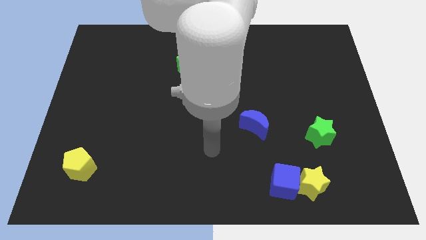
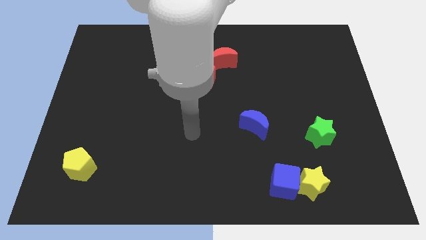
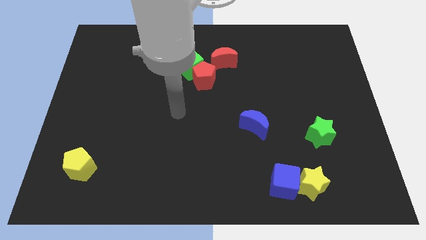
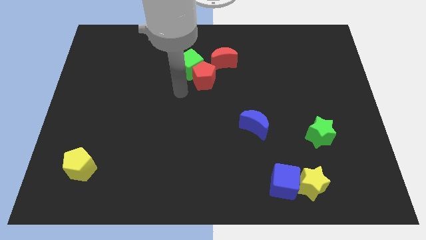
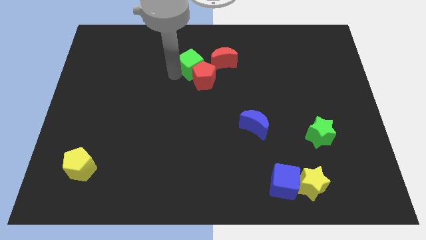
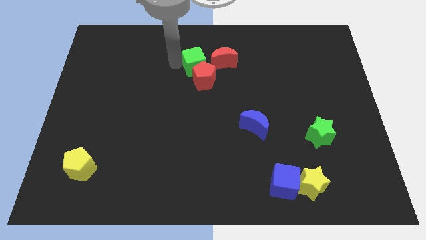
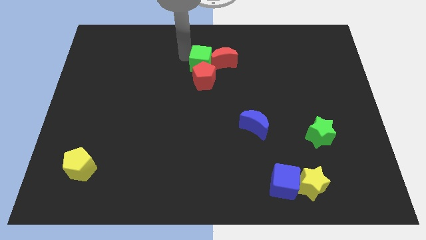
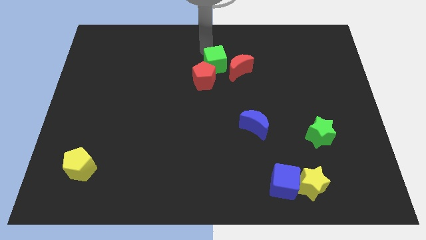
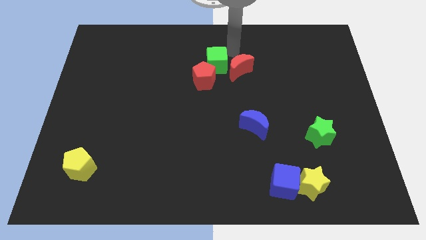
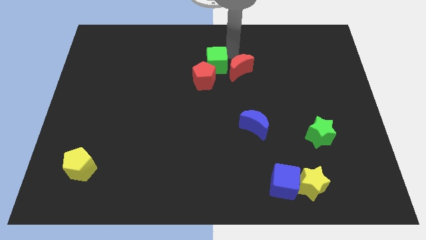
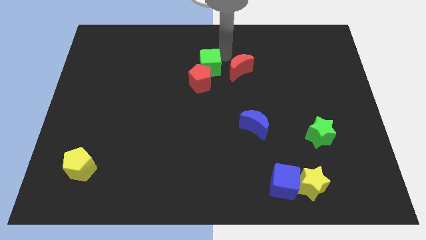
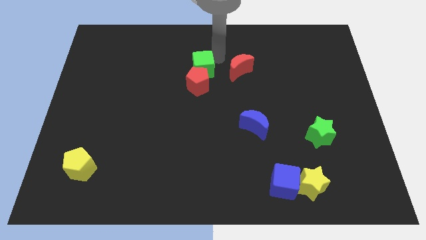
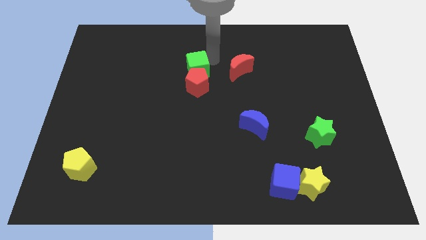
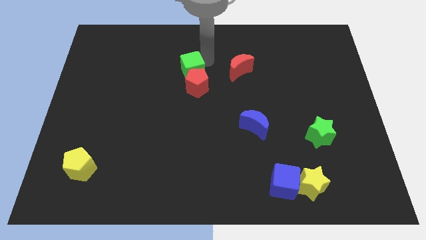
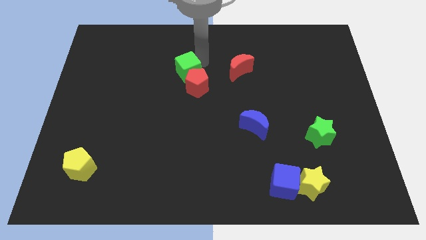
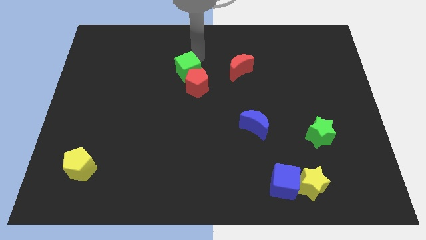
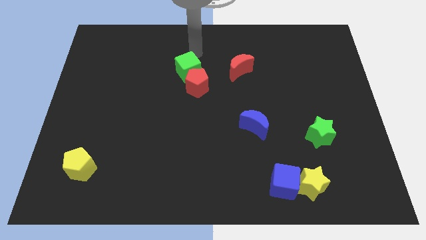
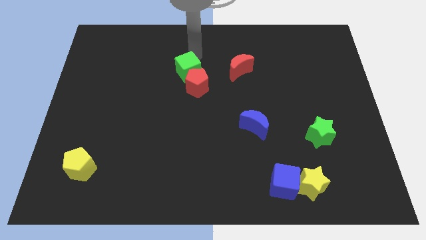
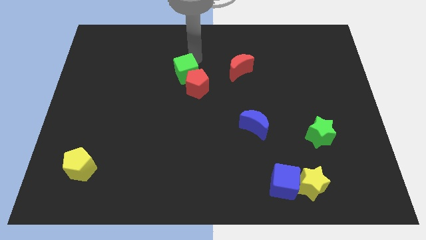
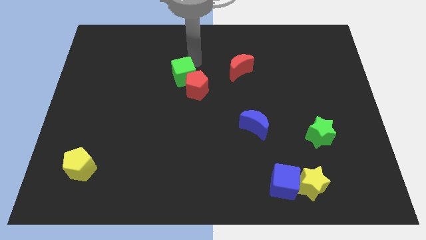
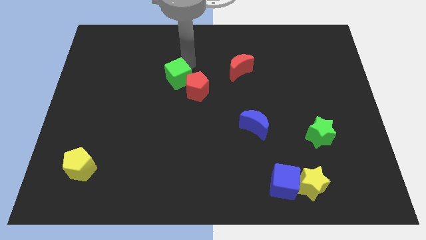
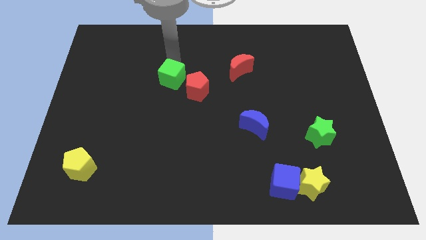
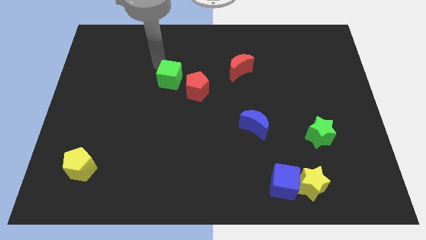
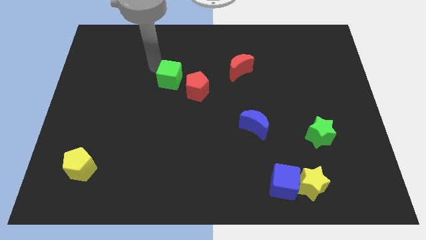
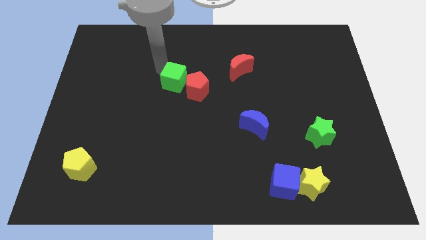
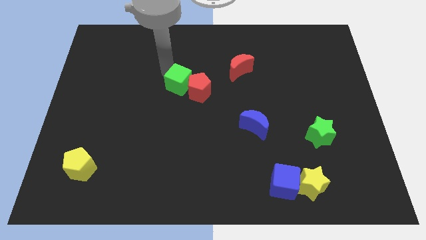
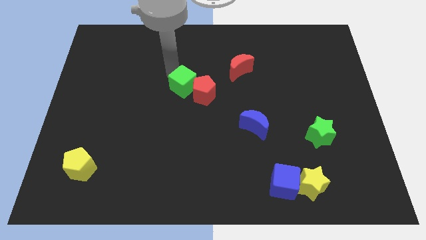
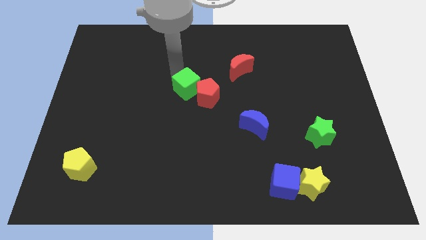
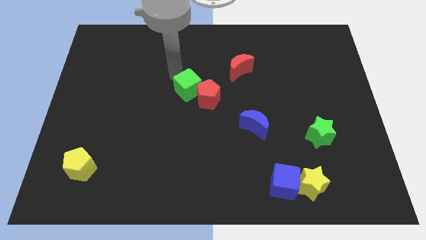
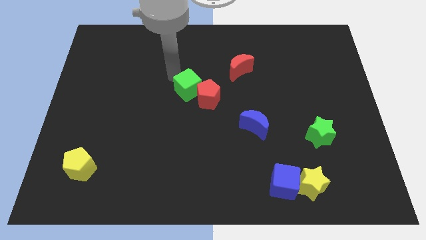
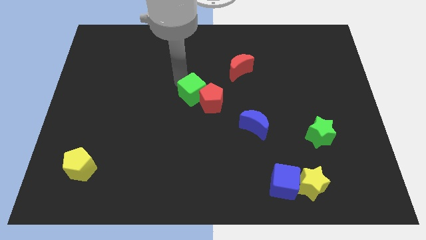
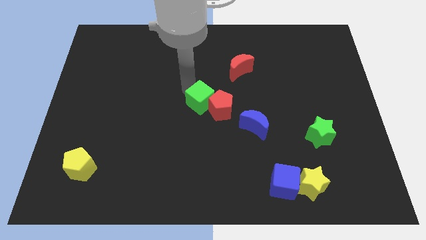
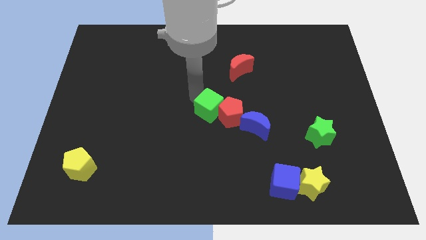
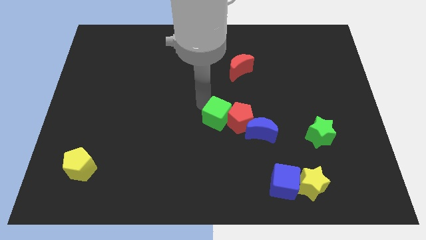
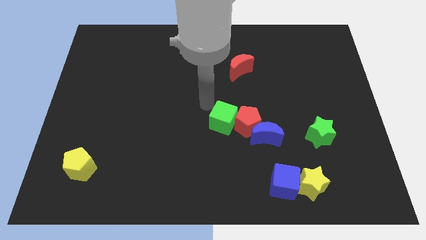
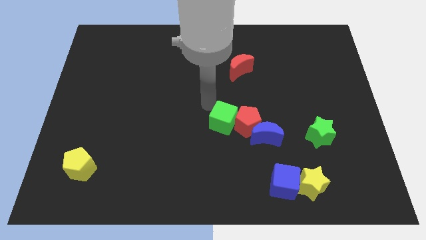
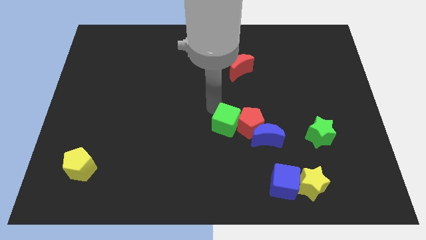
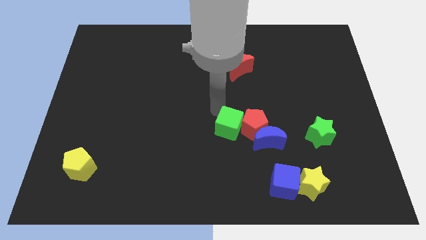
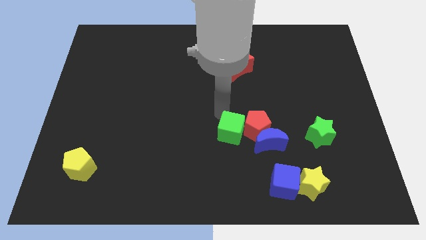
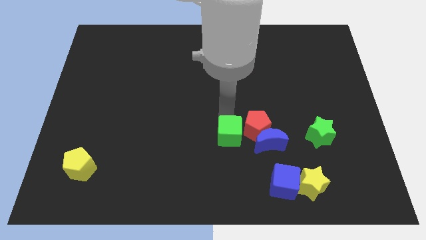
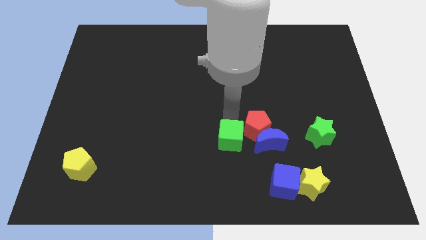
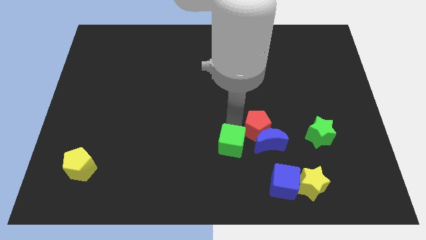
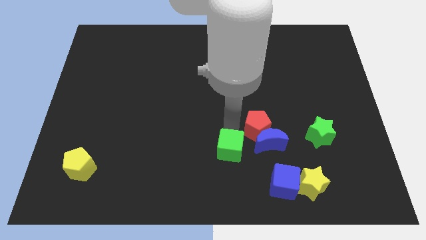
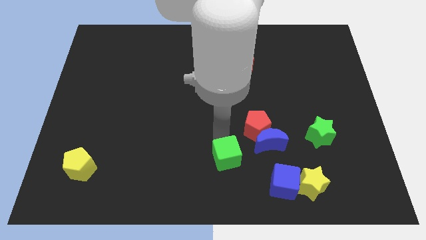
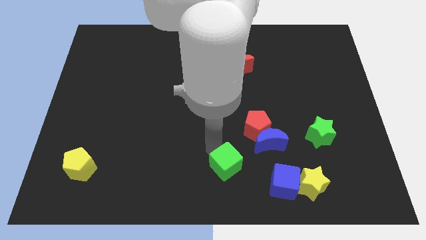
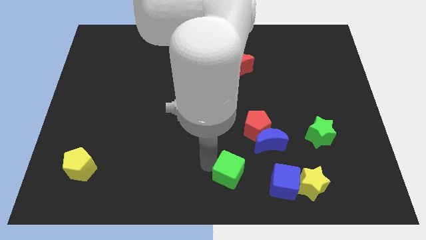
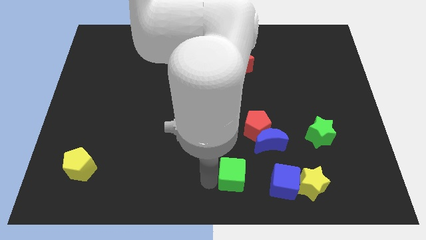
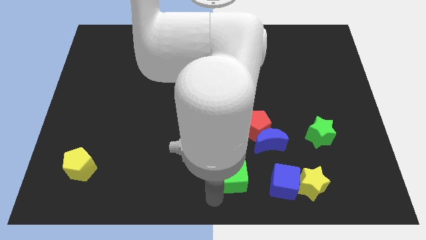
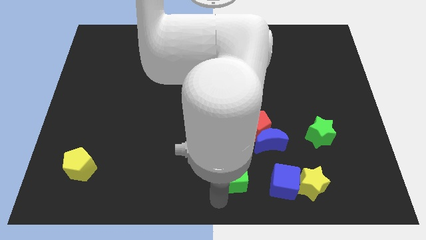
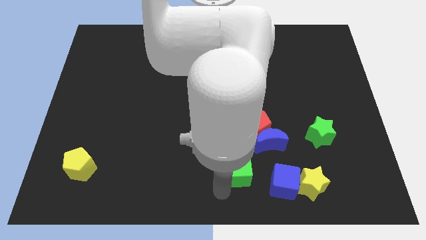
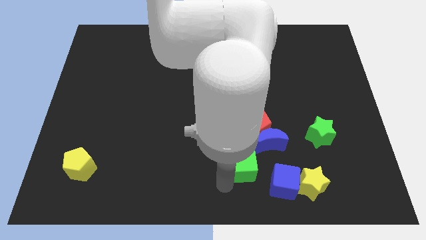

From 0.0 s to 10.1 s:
slide the green cube downwards and right

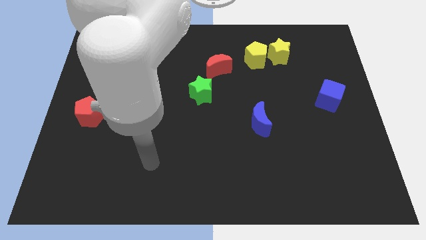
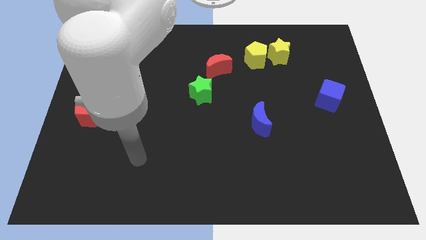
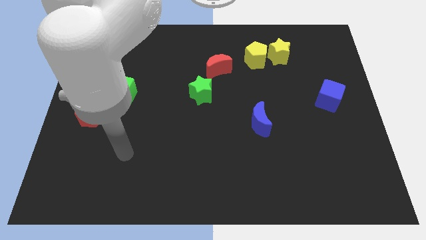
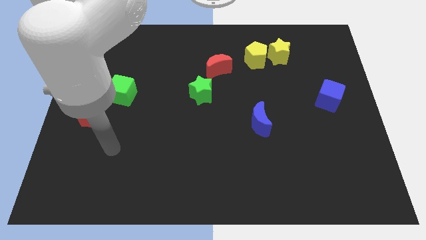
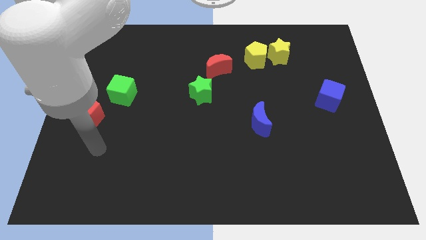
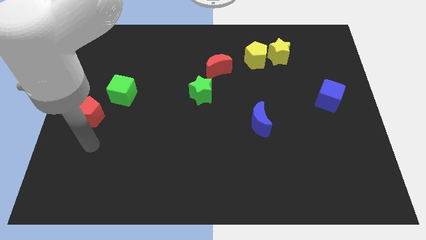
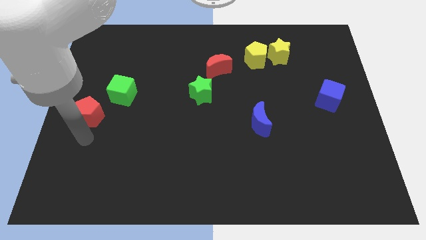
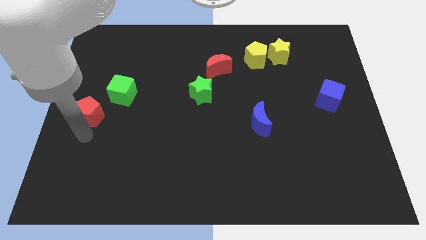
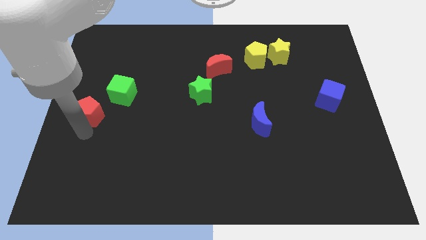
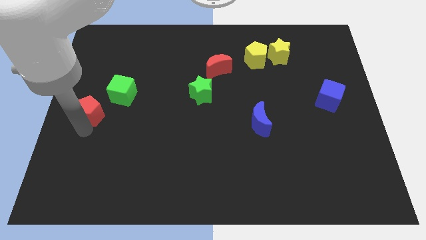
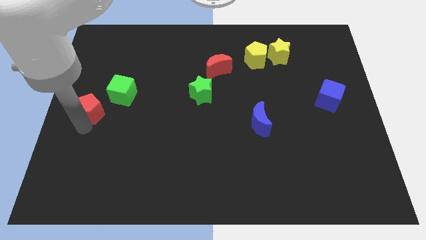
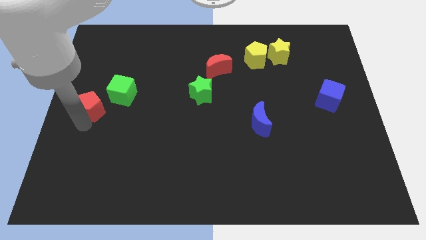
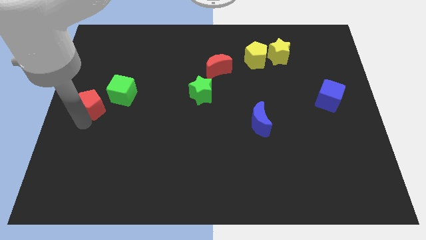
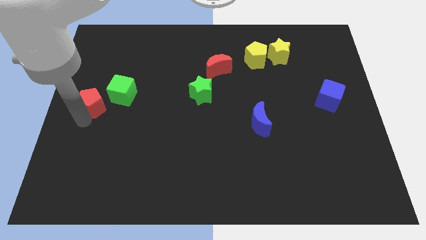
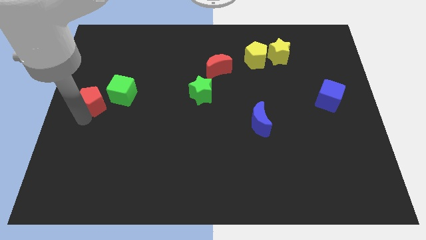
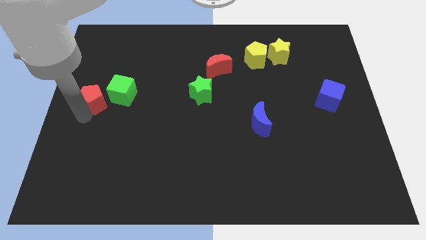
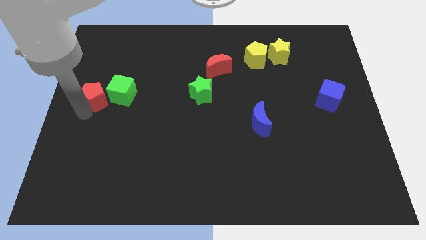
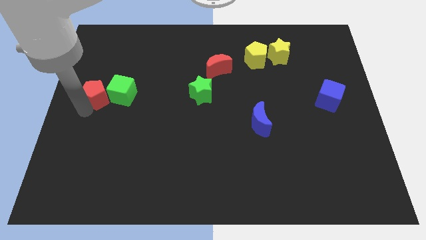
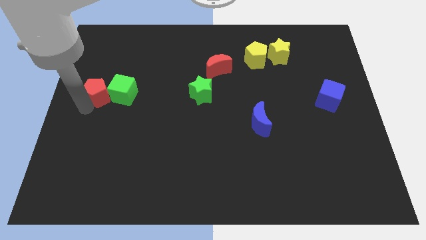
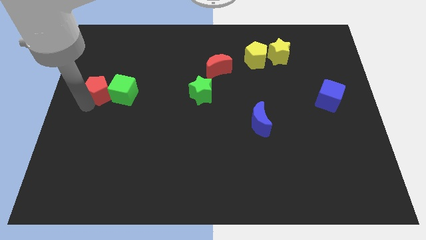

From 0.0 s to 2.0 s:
slightly slide the red pentagon up

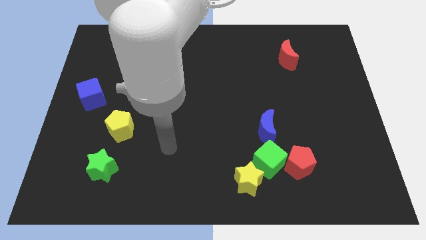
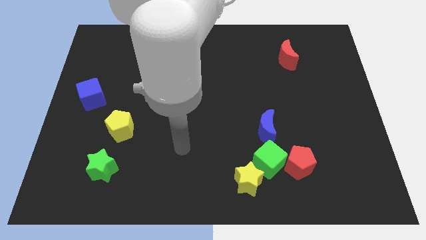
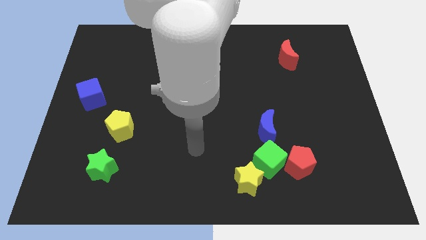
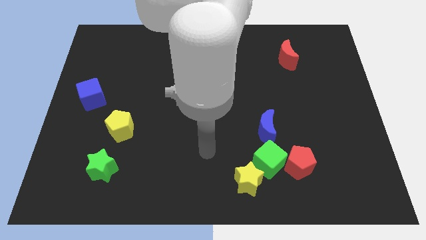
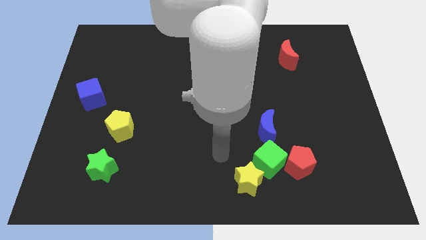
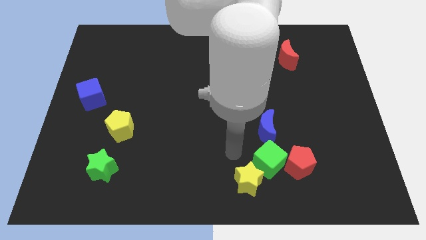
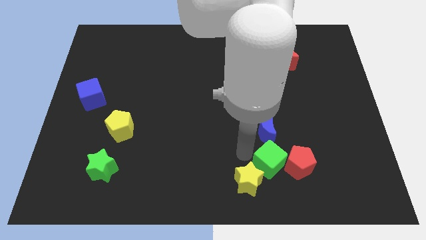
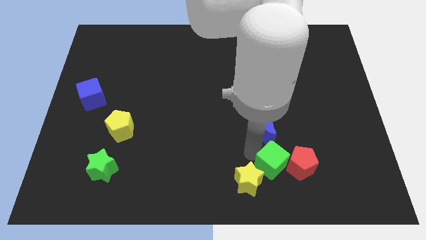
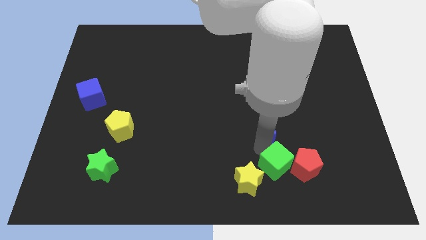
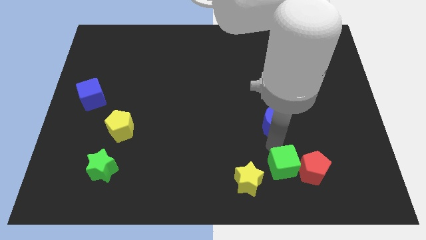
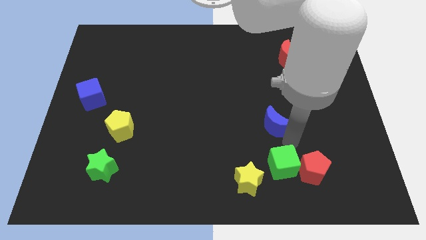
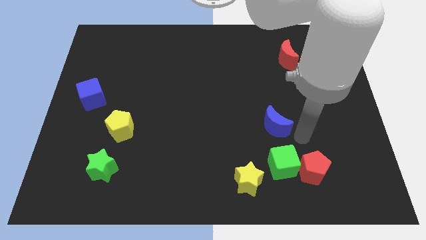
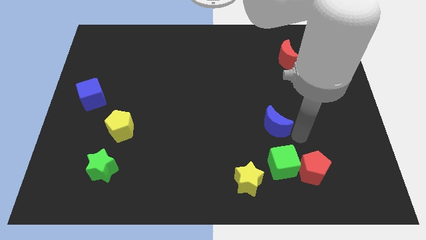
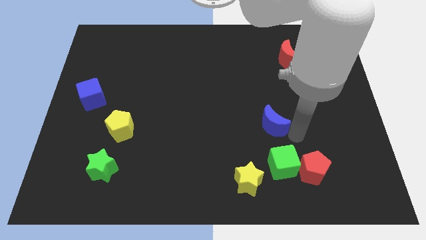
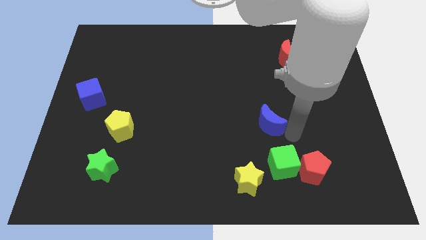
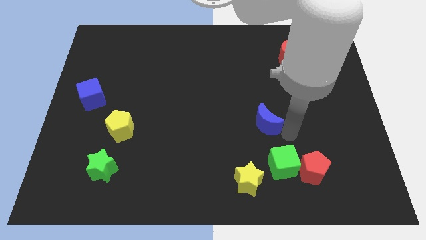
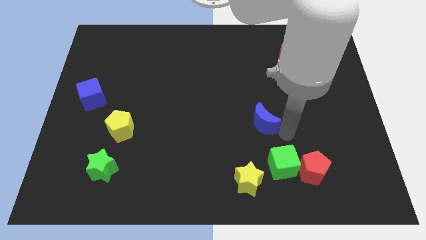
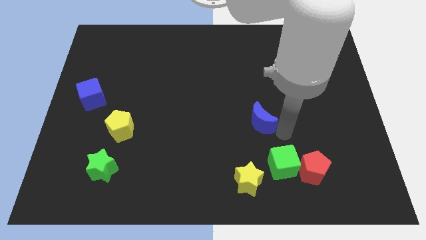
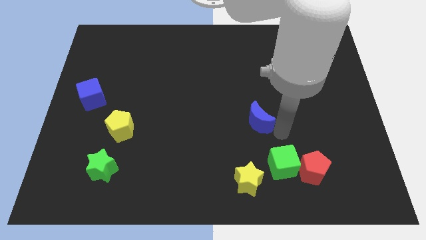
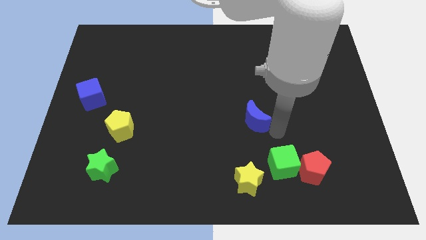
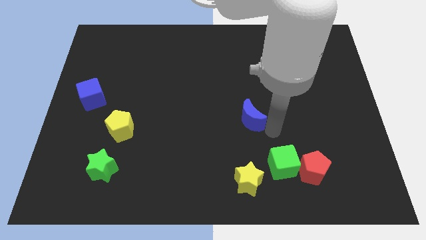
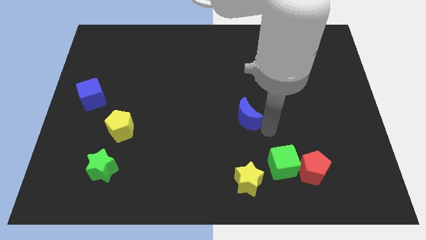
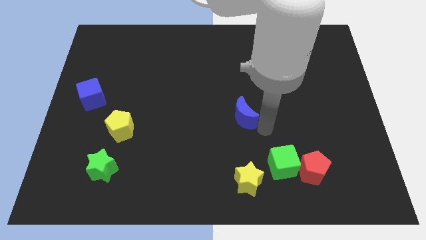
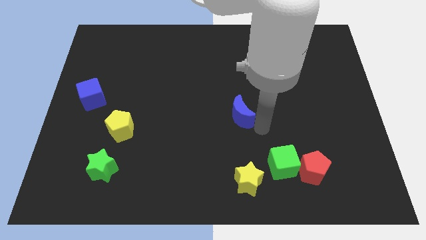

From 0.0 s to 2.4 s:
slightly slide the blue moon upwards and left diagonally
